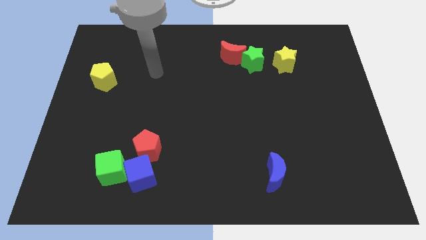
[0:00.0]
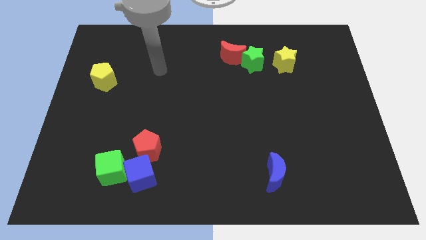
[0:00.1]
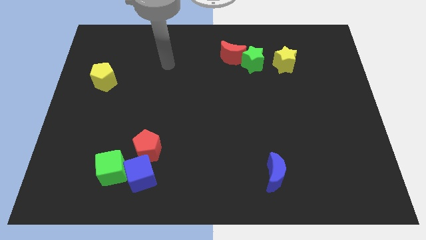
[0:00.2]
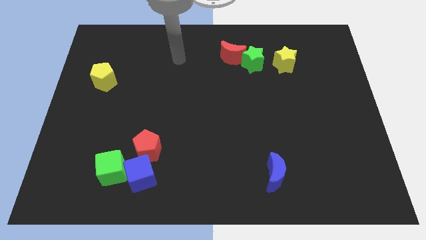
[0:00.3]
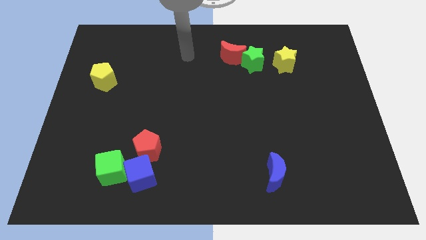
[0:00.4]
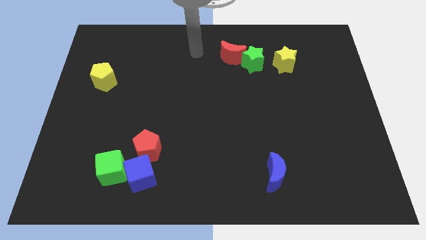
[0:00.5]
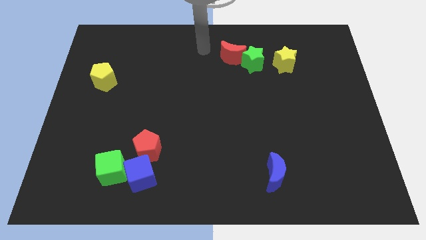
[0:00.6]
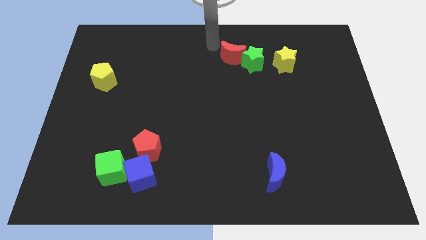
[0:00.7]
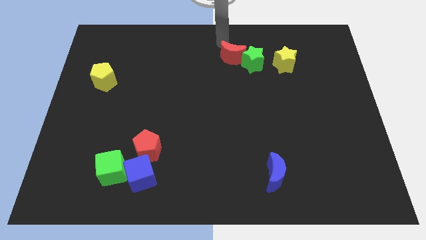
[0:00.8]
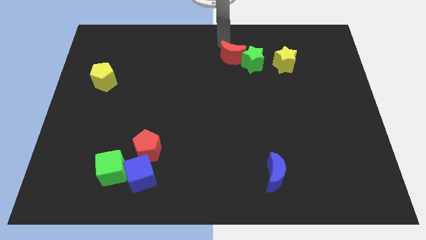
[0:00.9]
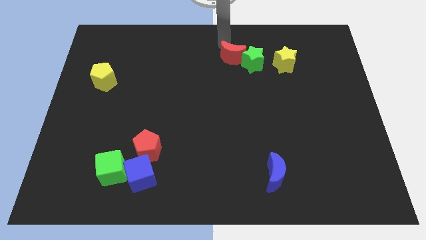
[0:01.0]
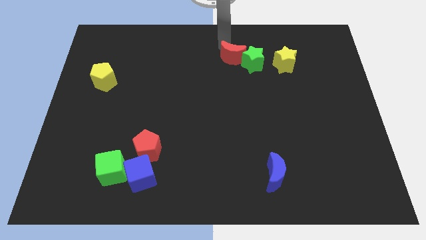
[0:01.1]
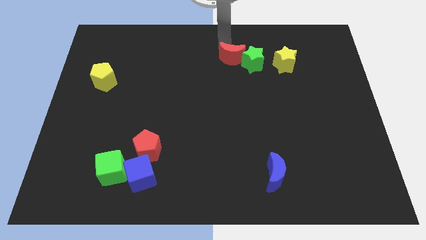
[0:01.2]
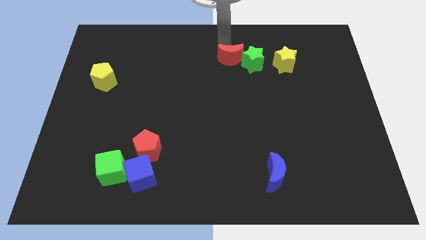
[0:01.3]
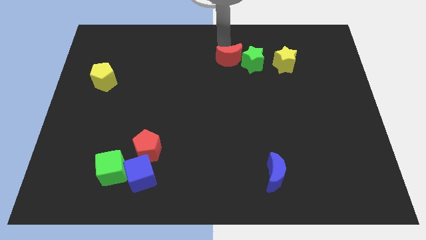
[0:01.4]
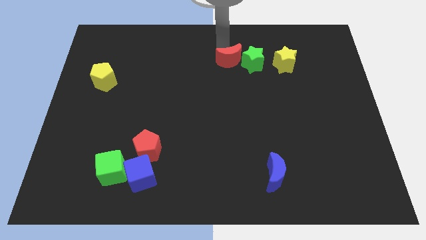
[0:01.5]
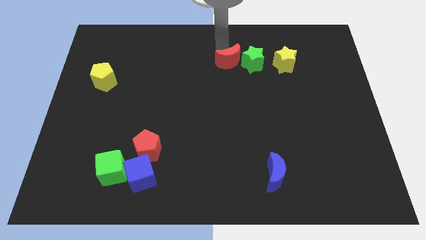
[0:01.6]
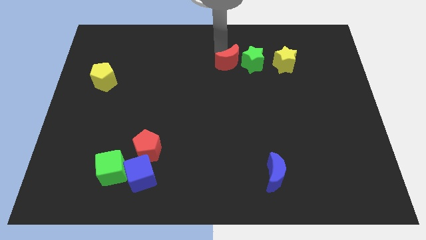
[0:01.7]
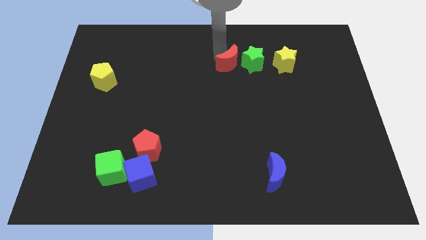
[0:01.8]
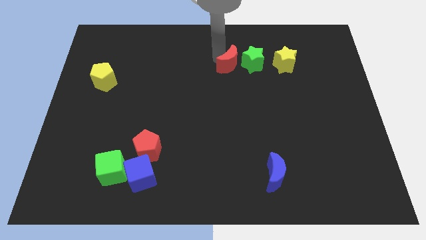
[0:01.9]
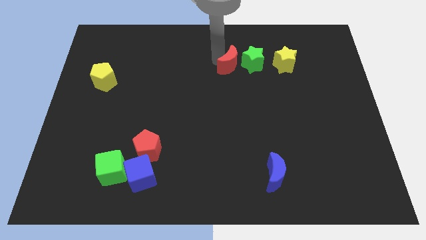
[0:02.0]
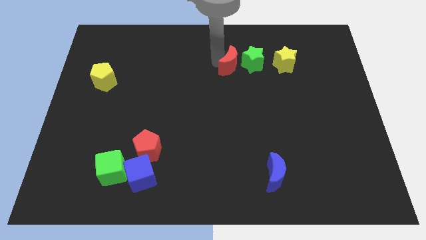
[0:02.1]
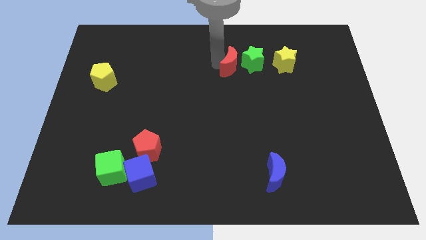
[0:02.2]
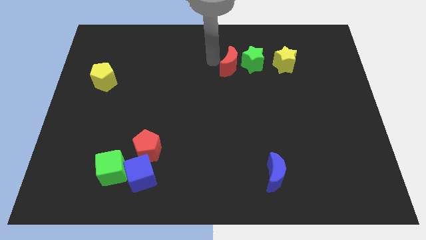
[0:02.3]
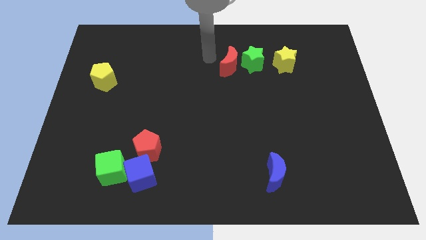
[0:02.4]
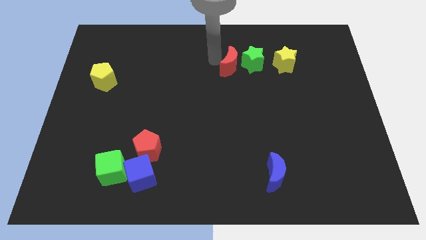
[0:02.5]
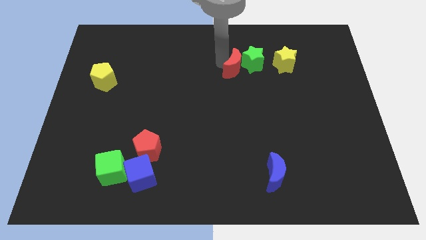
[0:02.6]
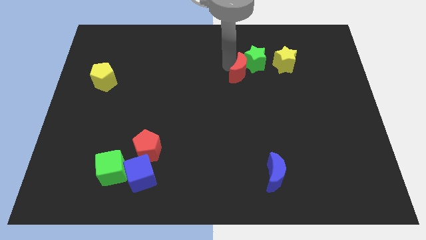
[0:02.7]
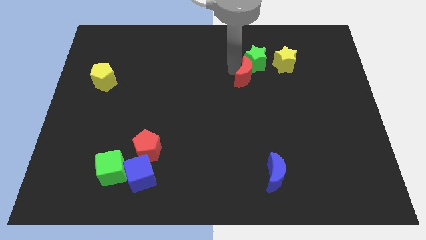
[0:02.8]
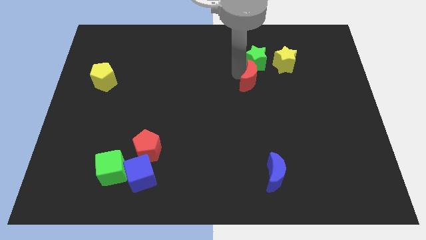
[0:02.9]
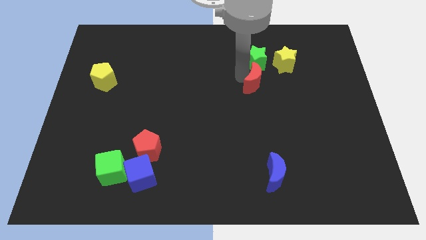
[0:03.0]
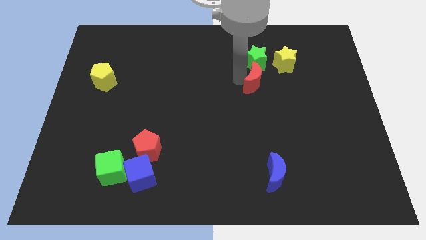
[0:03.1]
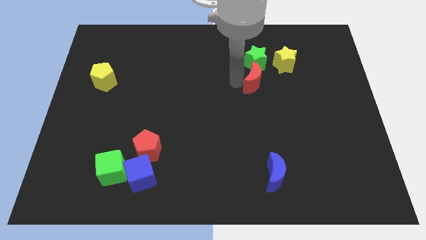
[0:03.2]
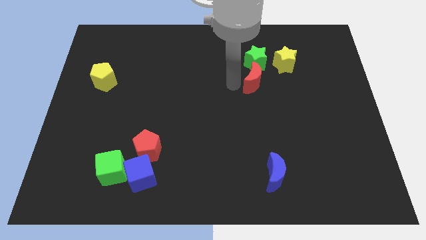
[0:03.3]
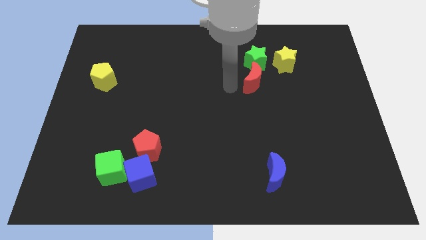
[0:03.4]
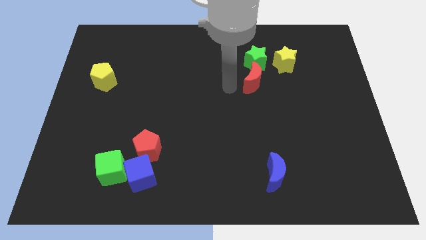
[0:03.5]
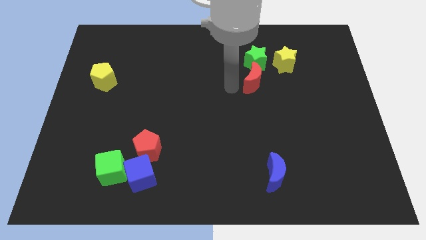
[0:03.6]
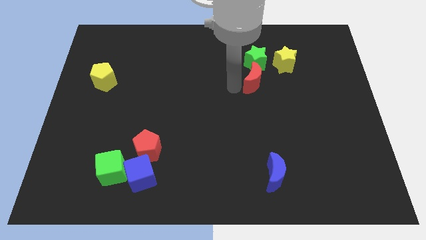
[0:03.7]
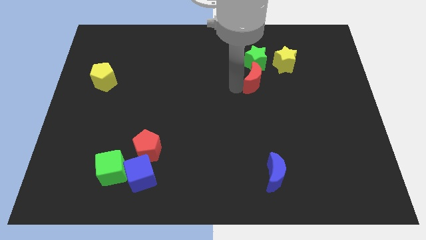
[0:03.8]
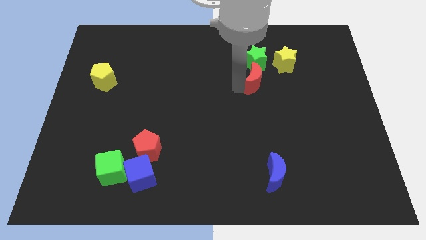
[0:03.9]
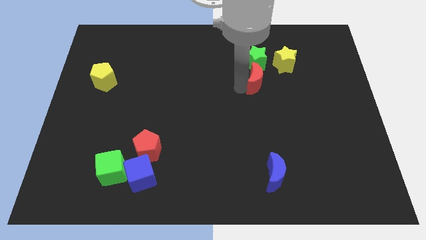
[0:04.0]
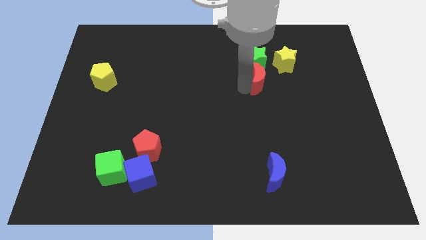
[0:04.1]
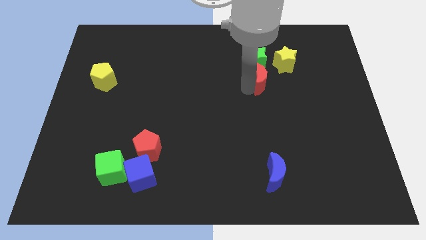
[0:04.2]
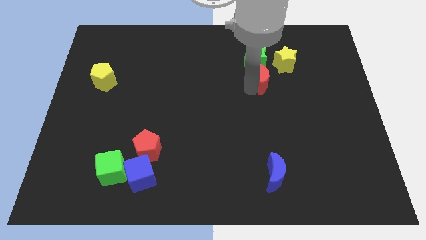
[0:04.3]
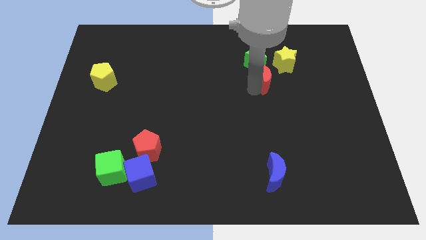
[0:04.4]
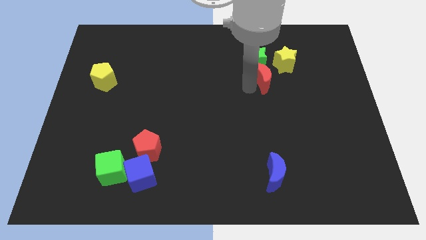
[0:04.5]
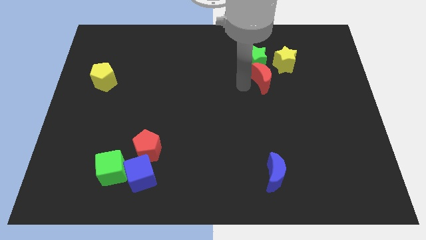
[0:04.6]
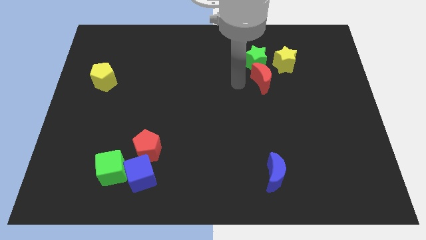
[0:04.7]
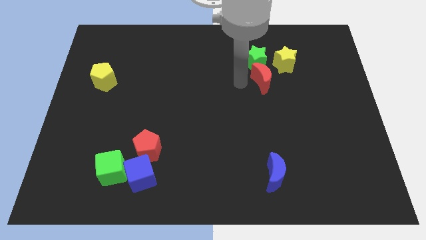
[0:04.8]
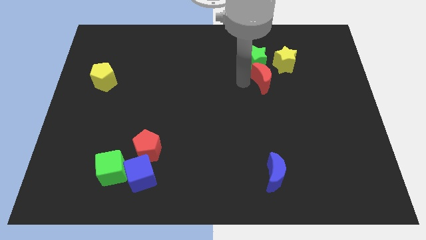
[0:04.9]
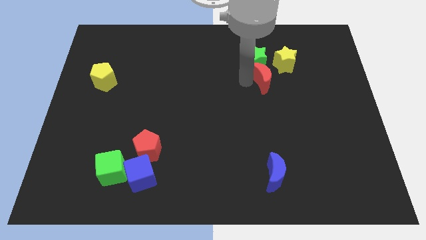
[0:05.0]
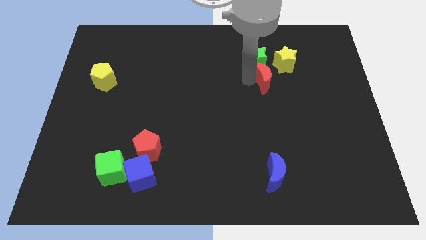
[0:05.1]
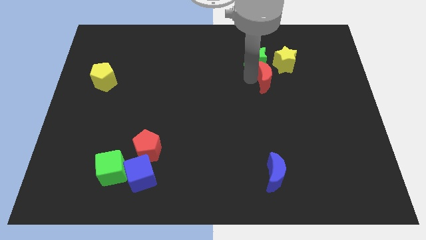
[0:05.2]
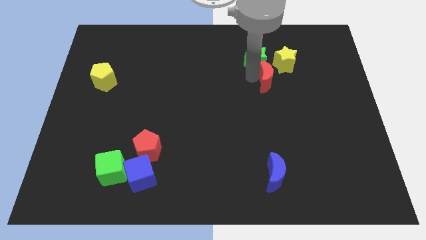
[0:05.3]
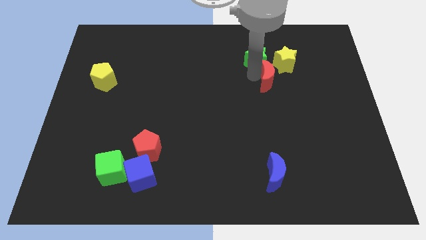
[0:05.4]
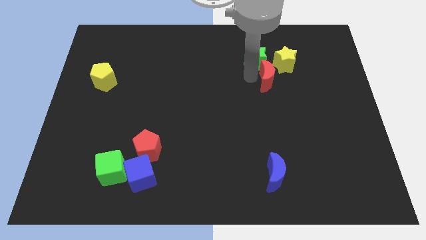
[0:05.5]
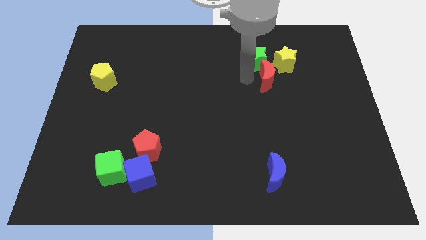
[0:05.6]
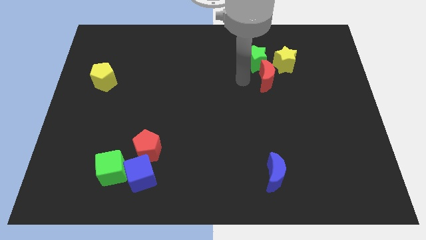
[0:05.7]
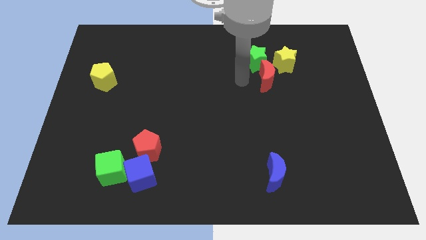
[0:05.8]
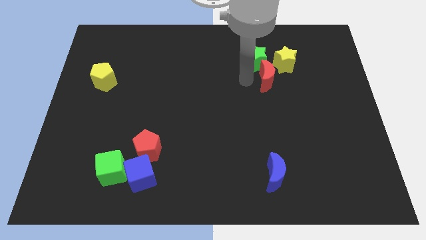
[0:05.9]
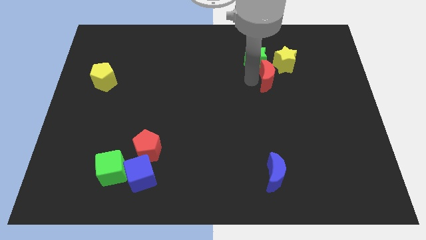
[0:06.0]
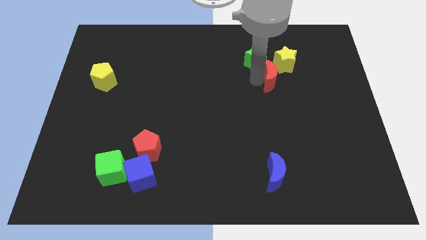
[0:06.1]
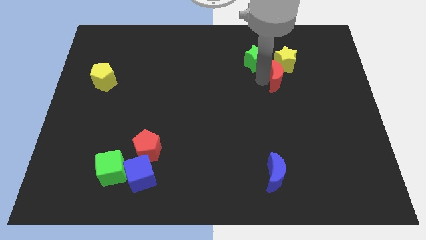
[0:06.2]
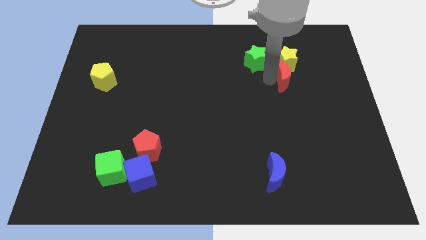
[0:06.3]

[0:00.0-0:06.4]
slide the red moon to the bottom right side of the yellow star

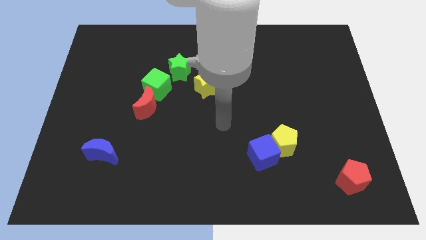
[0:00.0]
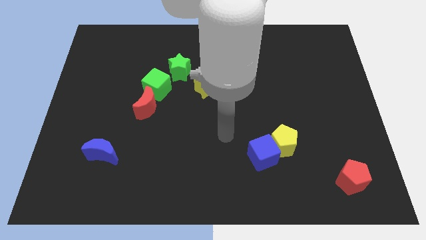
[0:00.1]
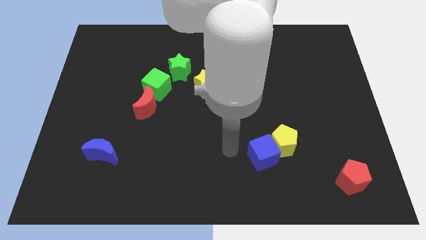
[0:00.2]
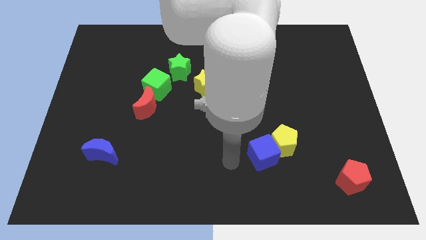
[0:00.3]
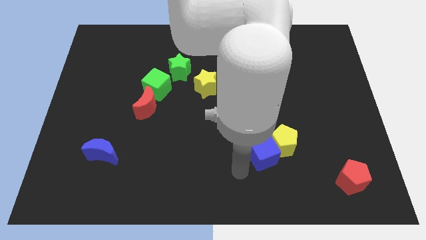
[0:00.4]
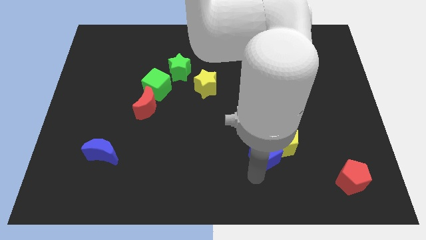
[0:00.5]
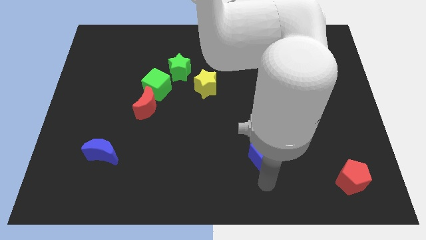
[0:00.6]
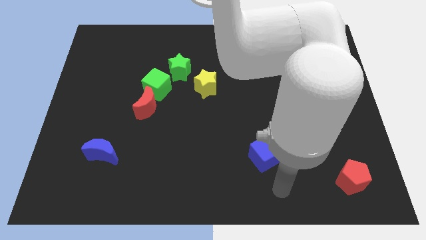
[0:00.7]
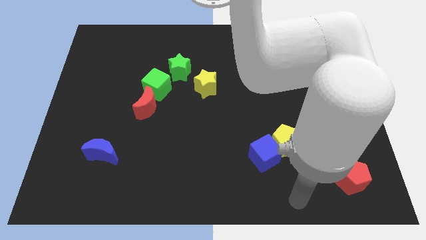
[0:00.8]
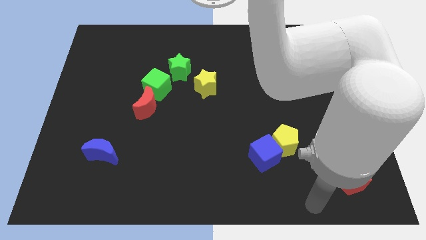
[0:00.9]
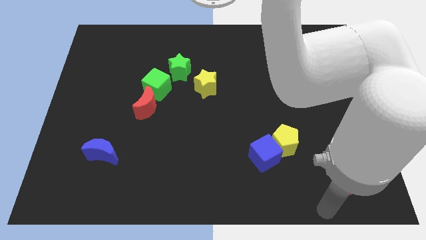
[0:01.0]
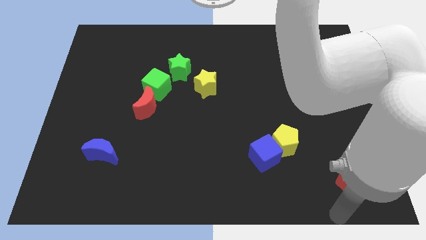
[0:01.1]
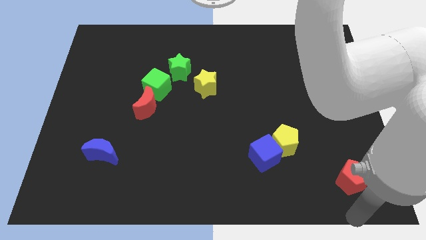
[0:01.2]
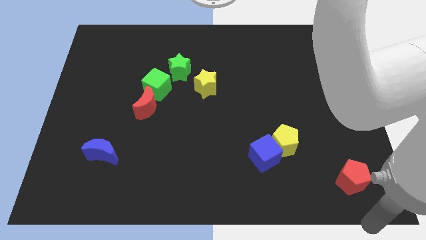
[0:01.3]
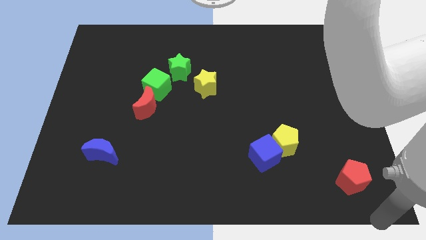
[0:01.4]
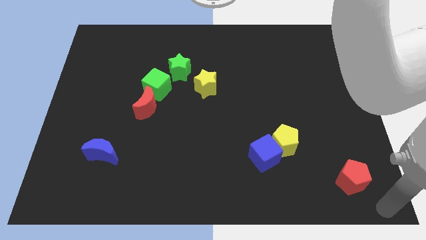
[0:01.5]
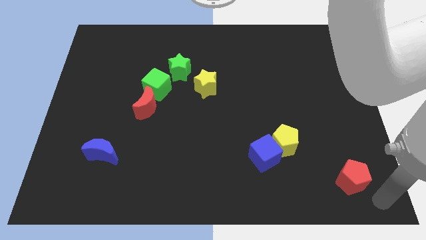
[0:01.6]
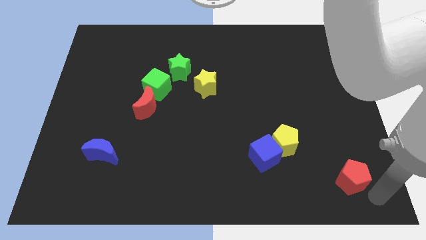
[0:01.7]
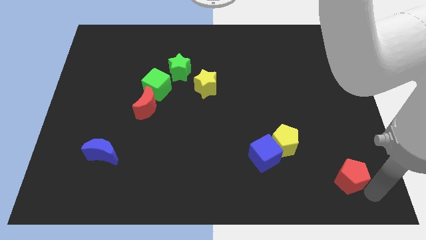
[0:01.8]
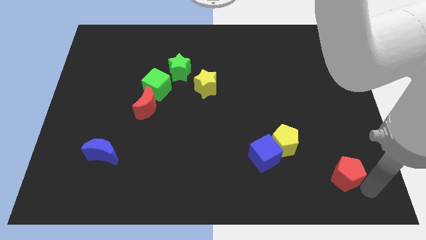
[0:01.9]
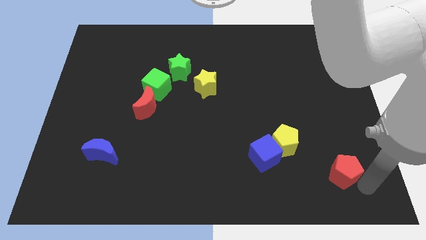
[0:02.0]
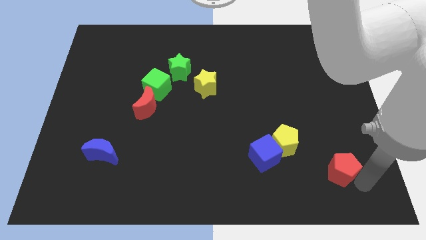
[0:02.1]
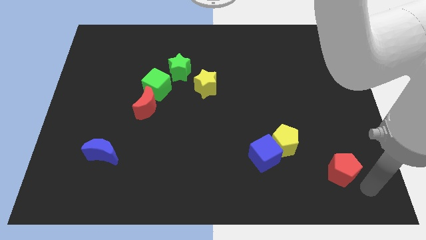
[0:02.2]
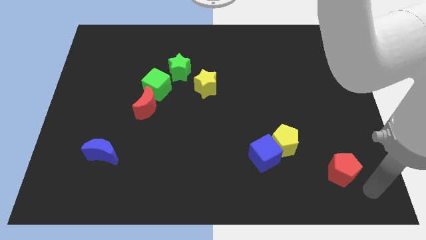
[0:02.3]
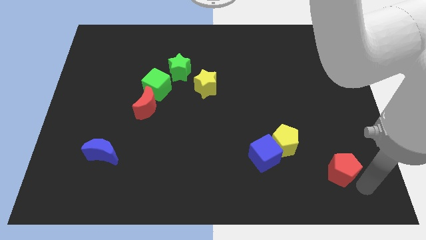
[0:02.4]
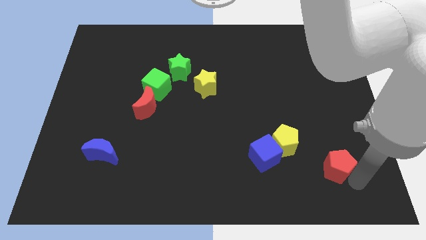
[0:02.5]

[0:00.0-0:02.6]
put the red pentagon right of the blue cube
